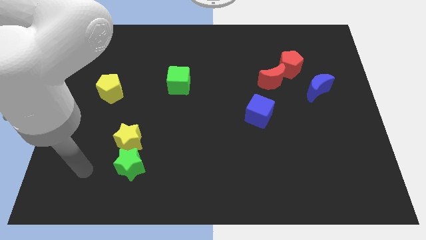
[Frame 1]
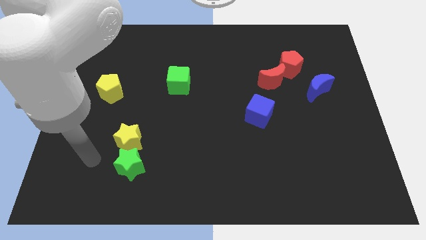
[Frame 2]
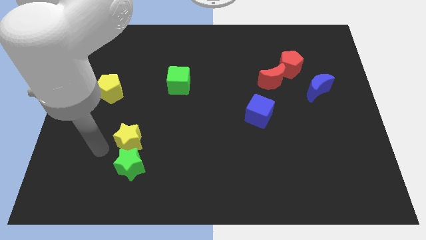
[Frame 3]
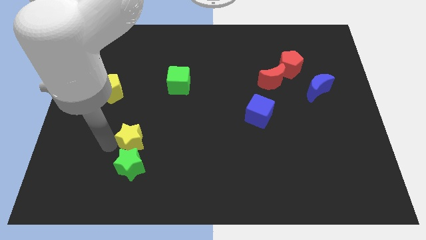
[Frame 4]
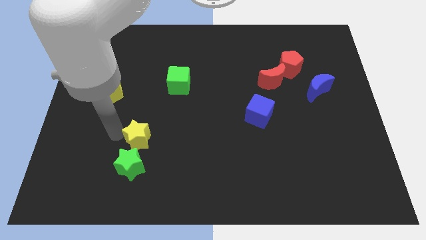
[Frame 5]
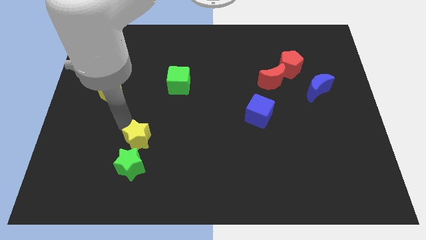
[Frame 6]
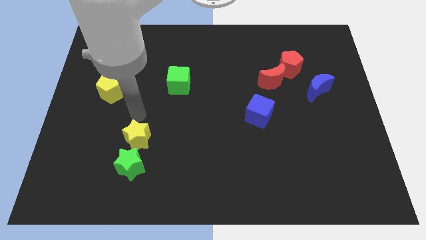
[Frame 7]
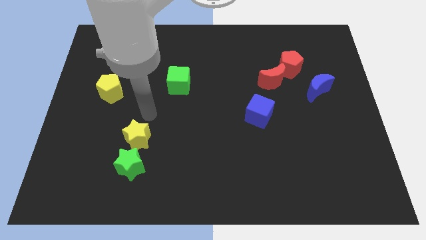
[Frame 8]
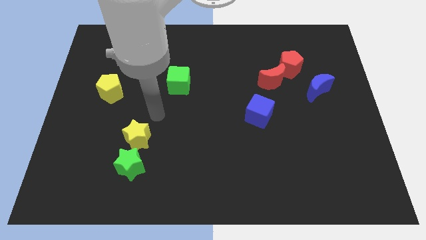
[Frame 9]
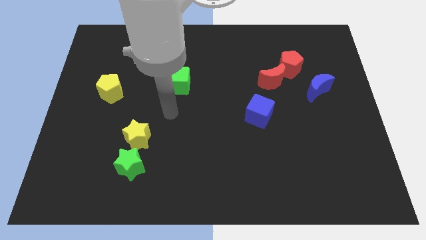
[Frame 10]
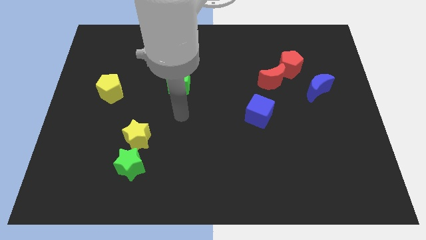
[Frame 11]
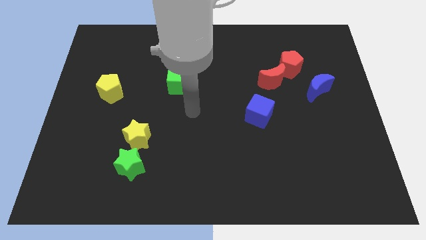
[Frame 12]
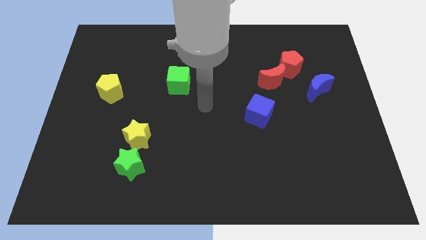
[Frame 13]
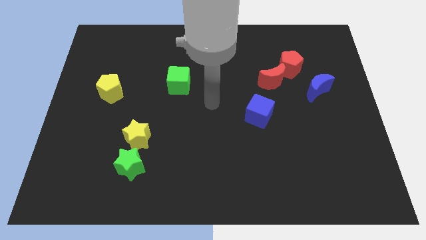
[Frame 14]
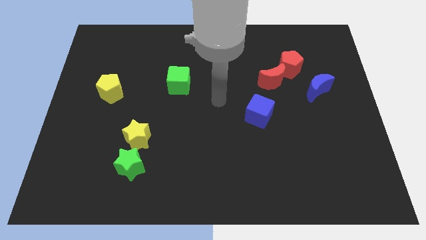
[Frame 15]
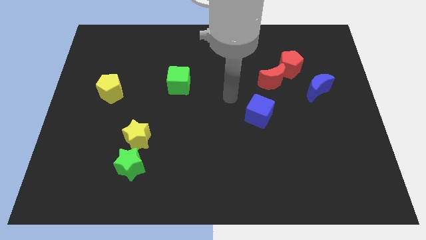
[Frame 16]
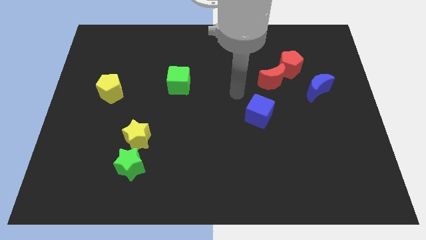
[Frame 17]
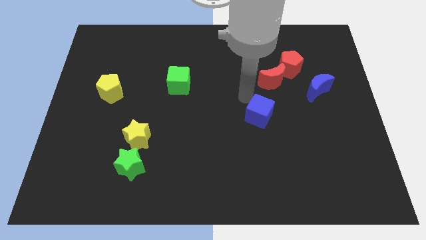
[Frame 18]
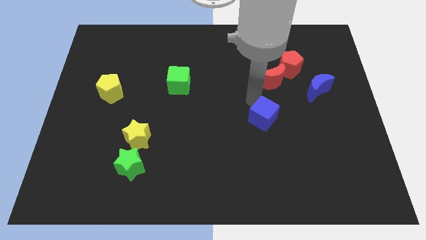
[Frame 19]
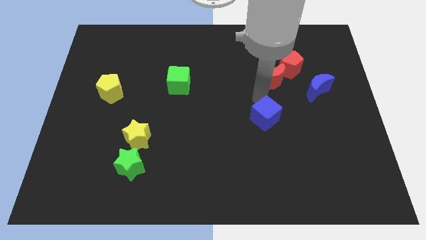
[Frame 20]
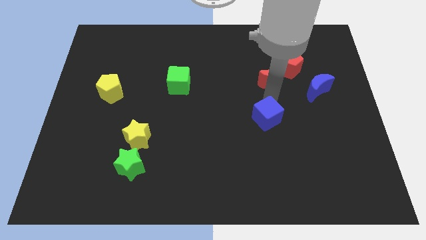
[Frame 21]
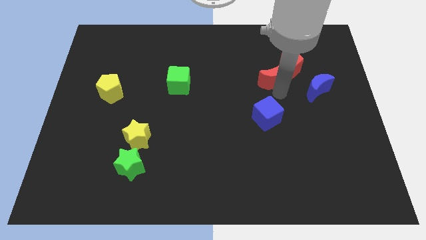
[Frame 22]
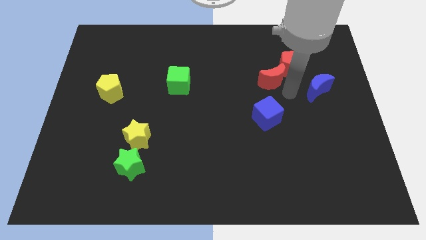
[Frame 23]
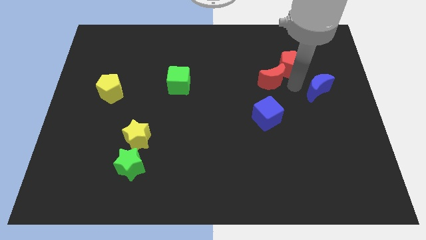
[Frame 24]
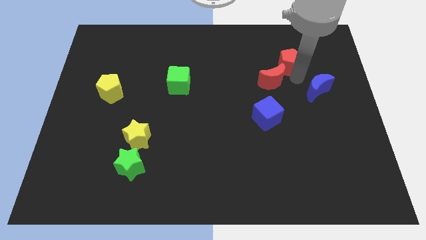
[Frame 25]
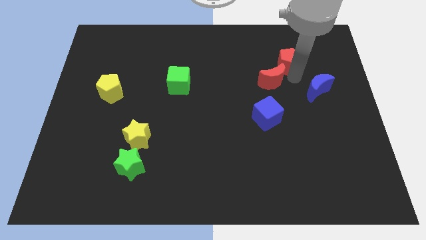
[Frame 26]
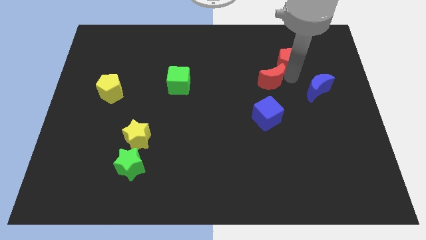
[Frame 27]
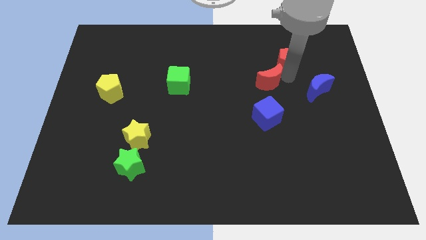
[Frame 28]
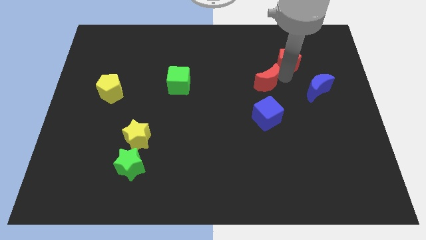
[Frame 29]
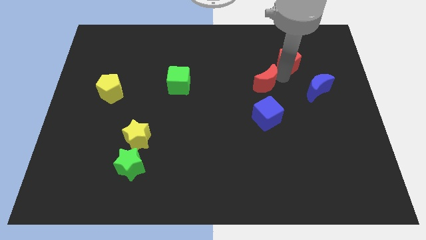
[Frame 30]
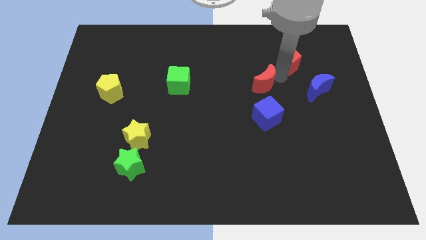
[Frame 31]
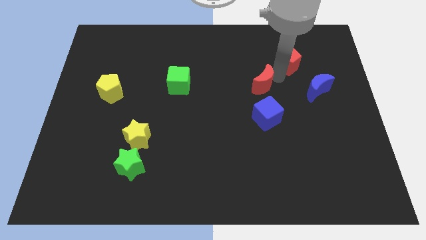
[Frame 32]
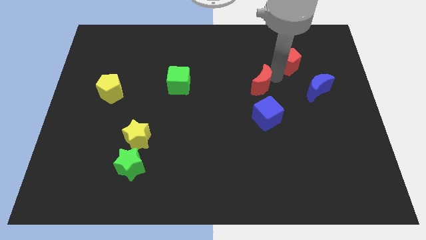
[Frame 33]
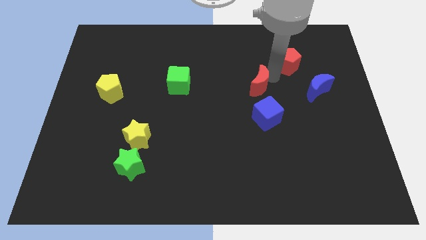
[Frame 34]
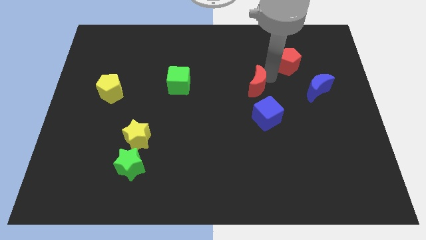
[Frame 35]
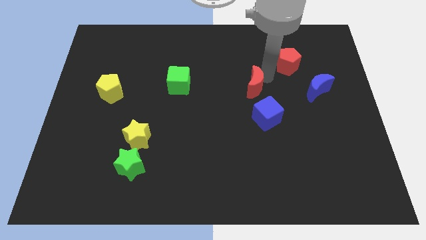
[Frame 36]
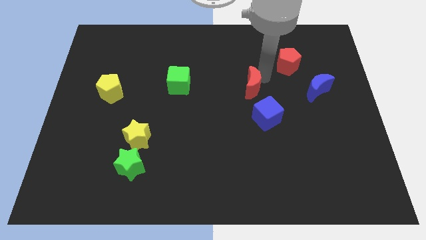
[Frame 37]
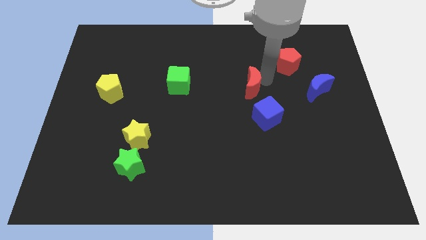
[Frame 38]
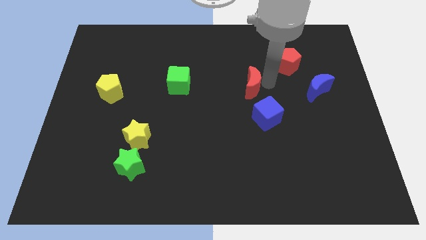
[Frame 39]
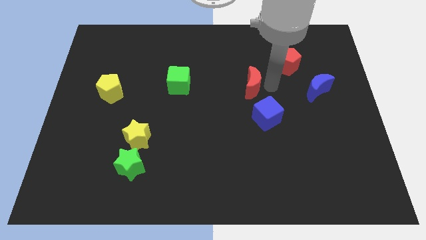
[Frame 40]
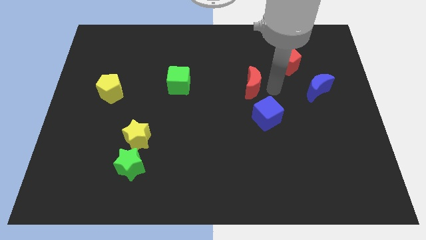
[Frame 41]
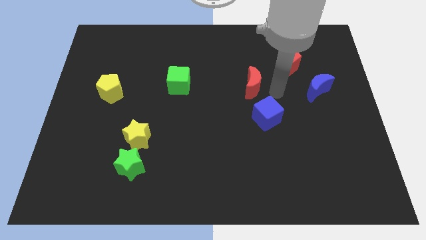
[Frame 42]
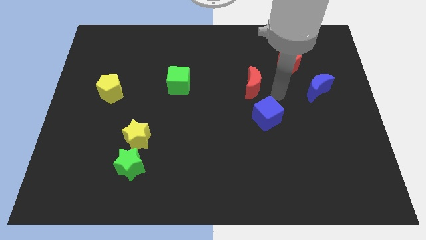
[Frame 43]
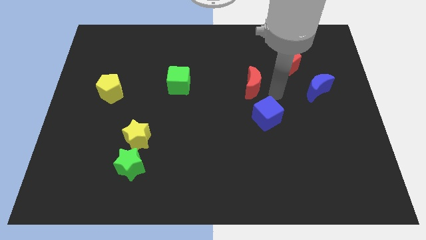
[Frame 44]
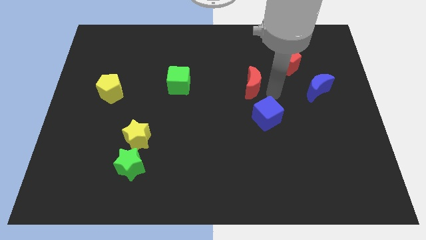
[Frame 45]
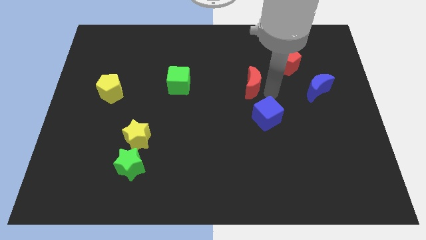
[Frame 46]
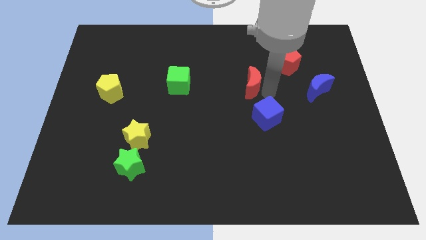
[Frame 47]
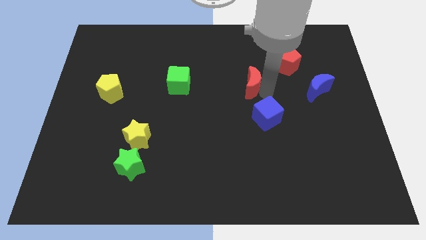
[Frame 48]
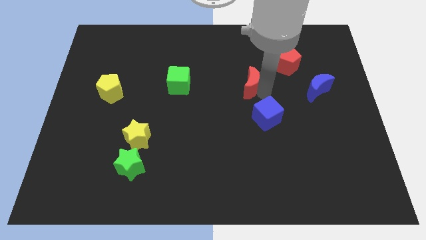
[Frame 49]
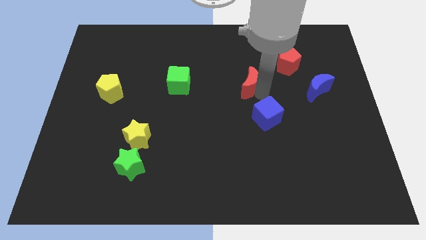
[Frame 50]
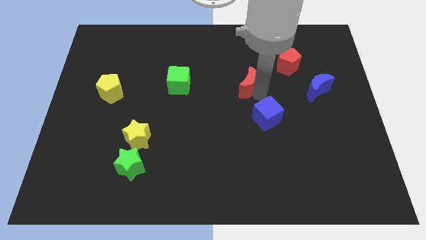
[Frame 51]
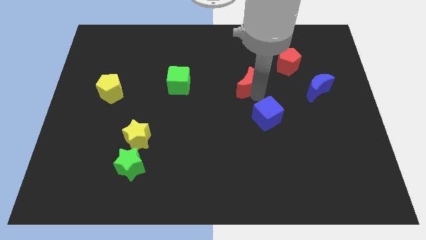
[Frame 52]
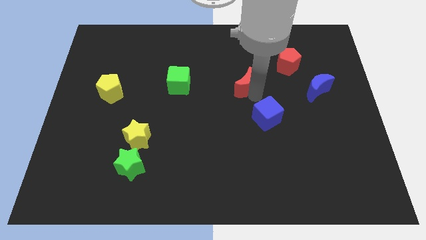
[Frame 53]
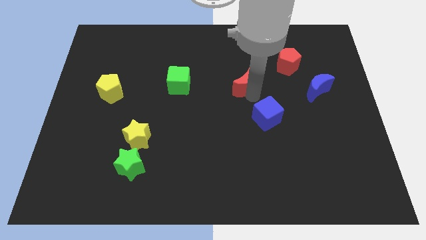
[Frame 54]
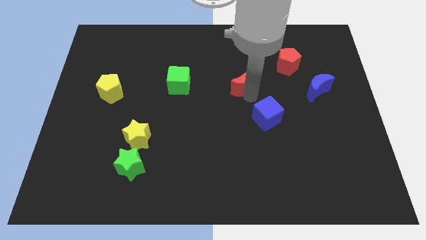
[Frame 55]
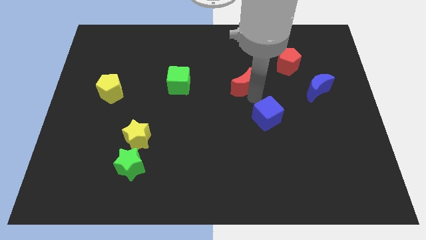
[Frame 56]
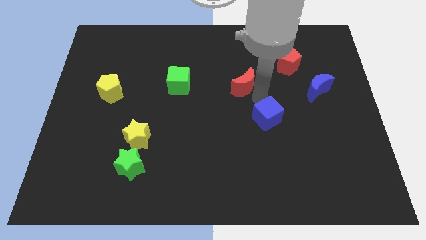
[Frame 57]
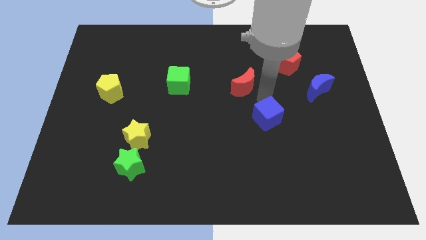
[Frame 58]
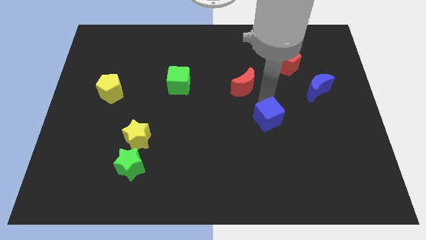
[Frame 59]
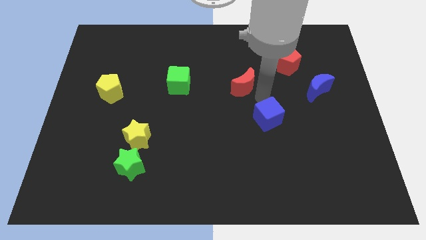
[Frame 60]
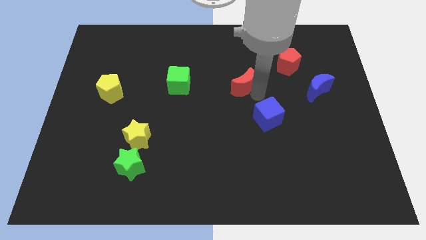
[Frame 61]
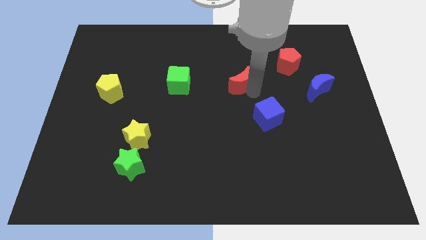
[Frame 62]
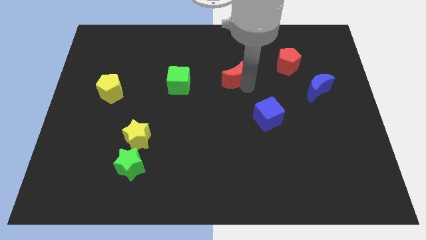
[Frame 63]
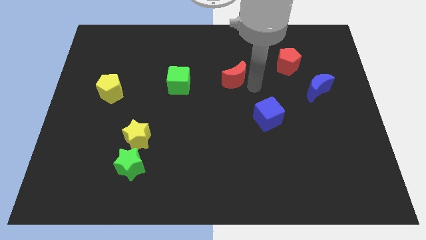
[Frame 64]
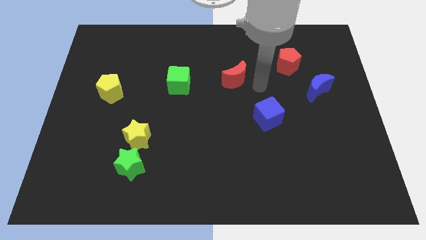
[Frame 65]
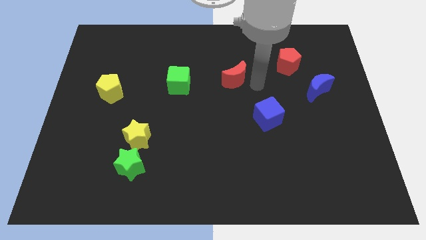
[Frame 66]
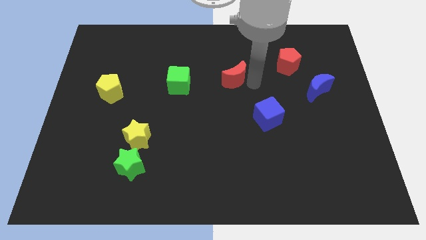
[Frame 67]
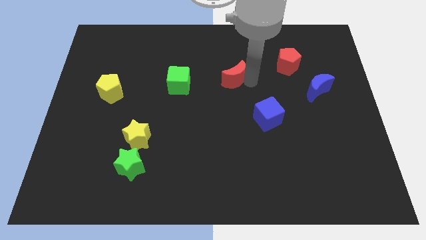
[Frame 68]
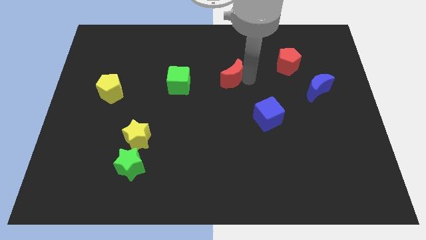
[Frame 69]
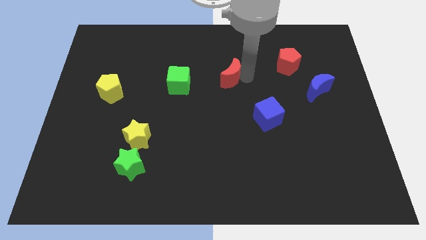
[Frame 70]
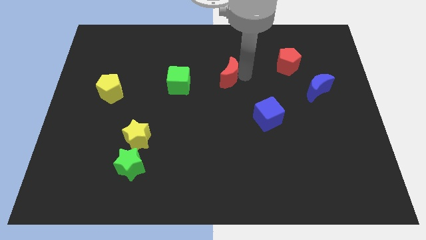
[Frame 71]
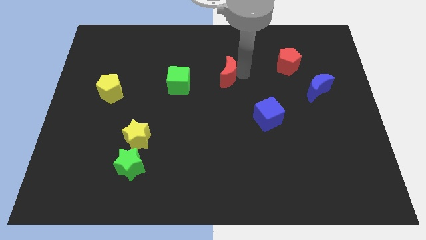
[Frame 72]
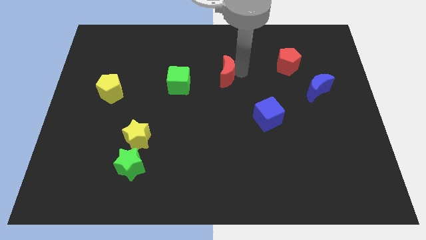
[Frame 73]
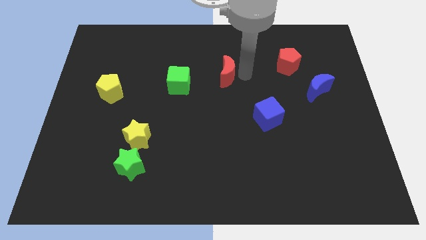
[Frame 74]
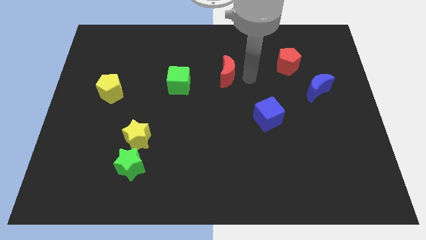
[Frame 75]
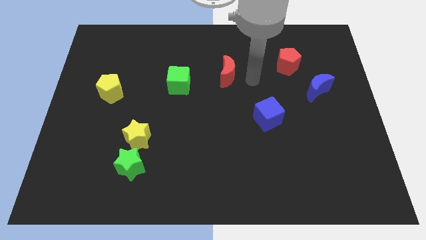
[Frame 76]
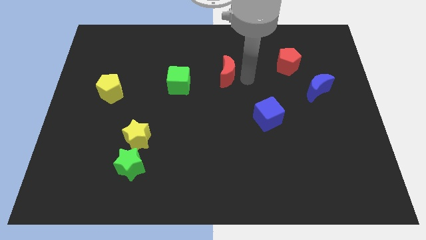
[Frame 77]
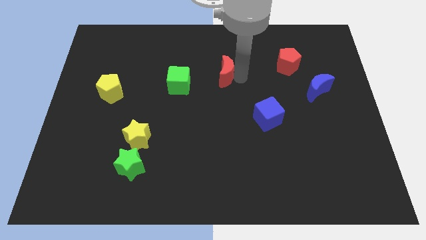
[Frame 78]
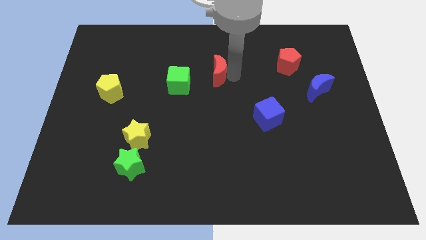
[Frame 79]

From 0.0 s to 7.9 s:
put the red moon to the top right side of the green cube
